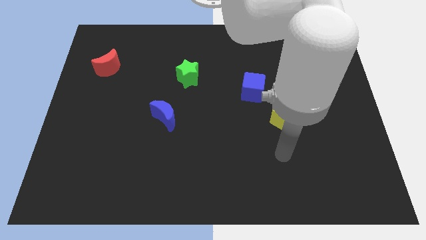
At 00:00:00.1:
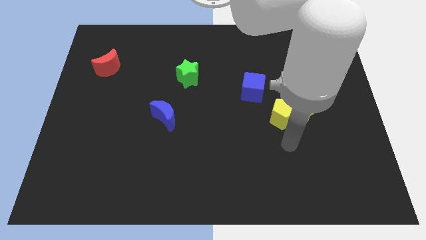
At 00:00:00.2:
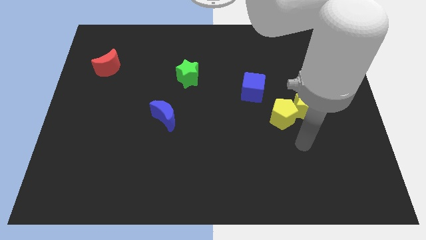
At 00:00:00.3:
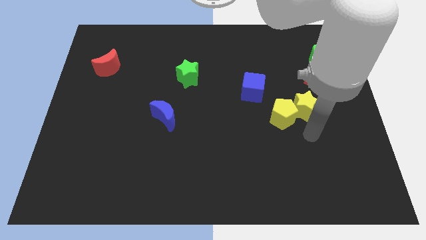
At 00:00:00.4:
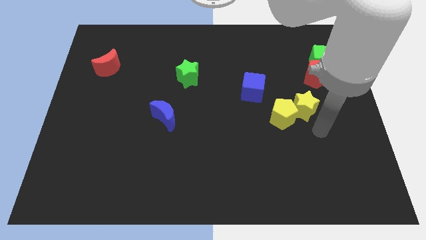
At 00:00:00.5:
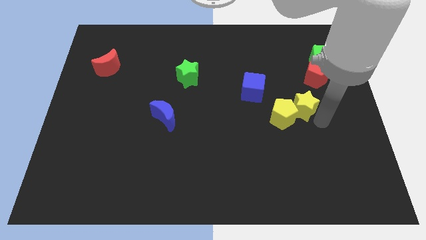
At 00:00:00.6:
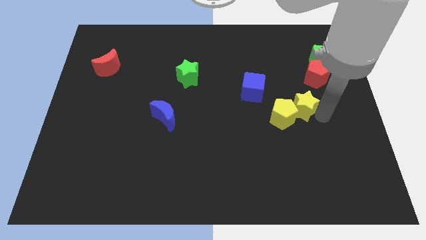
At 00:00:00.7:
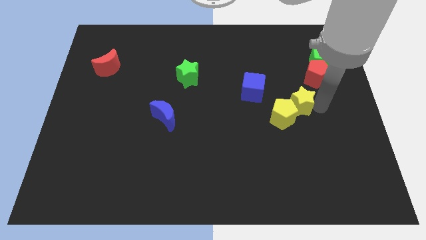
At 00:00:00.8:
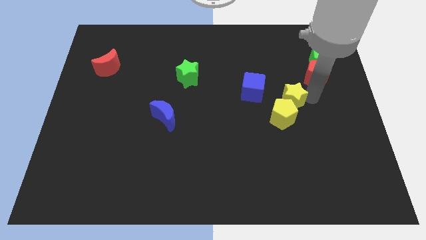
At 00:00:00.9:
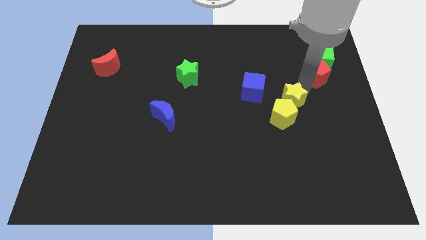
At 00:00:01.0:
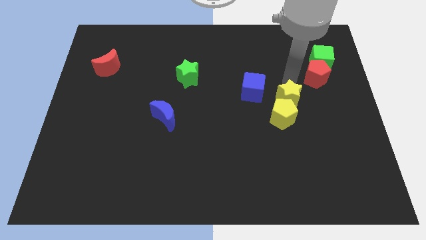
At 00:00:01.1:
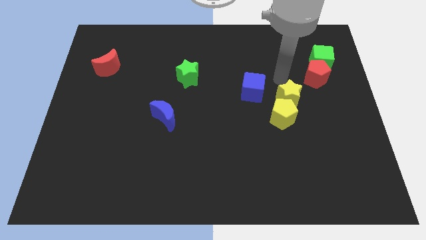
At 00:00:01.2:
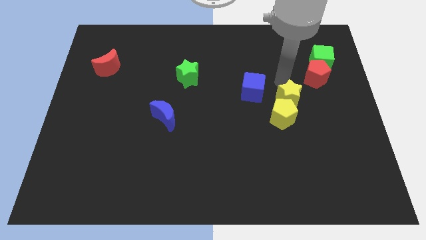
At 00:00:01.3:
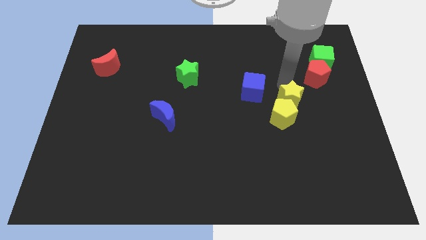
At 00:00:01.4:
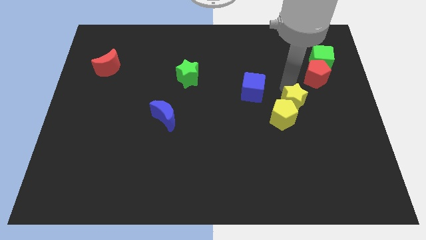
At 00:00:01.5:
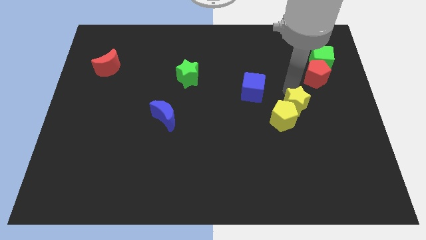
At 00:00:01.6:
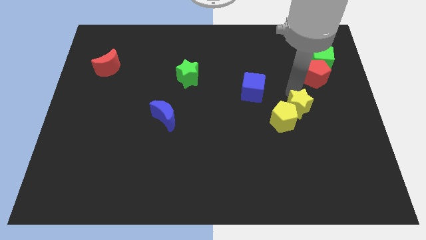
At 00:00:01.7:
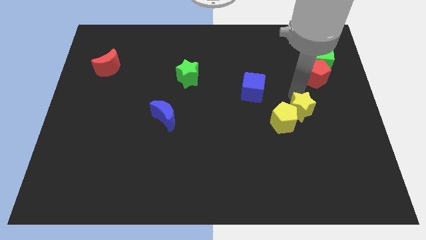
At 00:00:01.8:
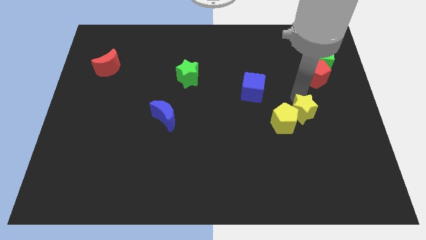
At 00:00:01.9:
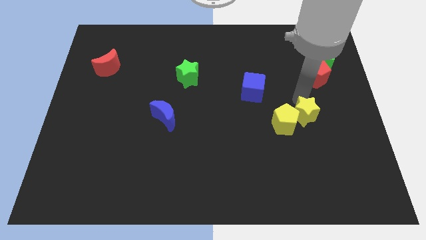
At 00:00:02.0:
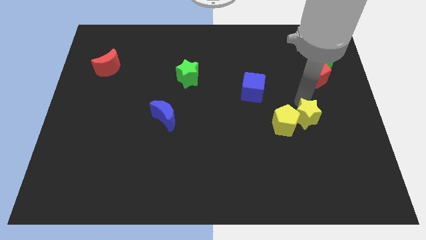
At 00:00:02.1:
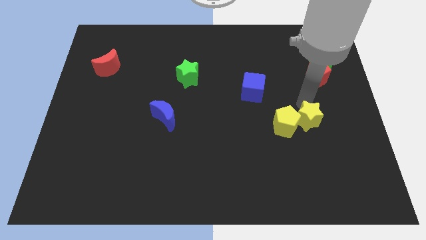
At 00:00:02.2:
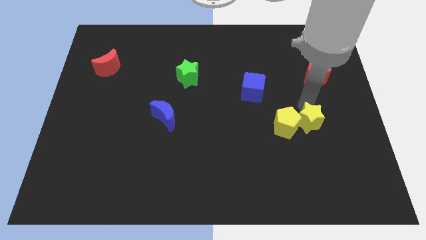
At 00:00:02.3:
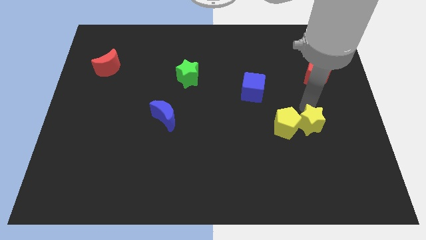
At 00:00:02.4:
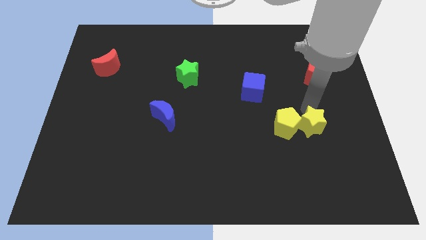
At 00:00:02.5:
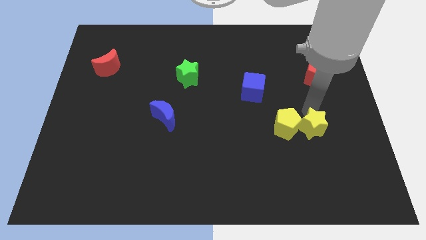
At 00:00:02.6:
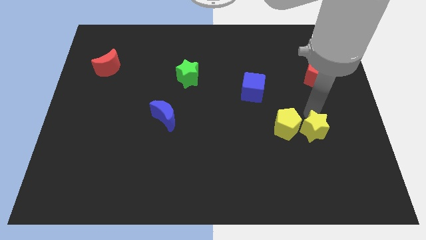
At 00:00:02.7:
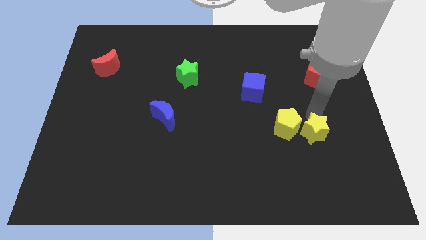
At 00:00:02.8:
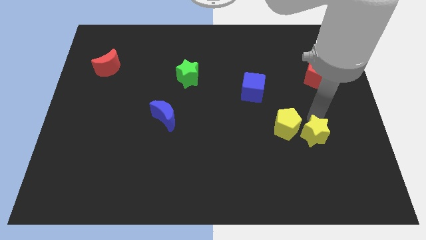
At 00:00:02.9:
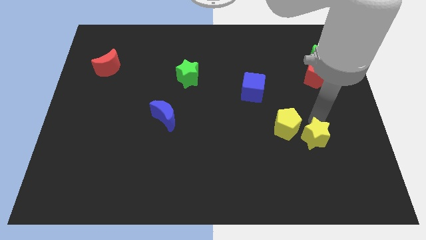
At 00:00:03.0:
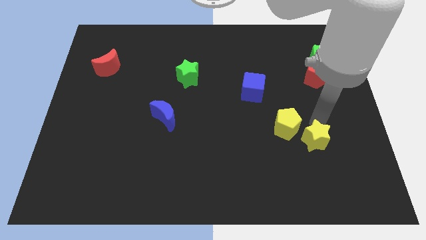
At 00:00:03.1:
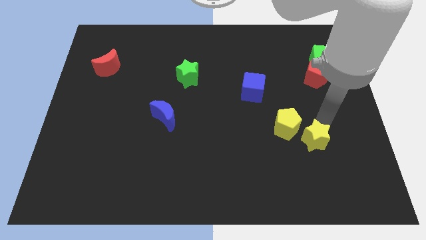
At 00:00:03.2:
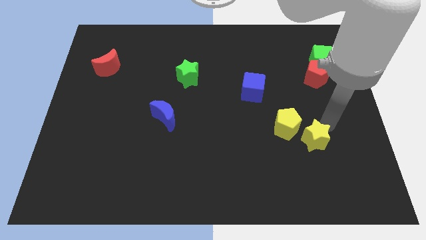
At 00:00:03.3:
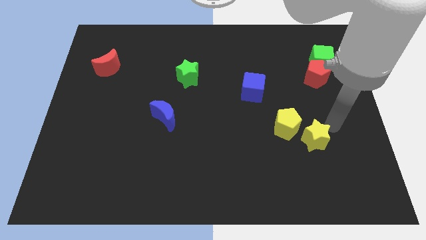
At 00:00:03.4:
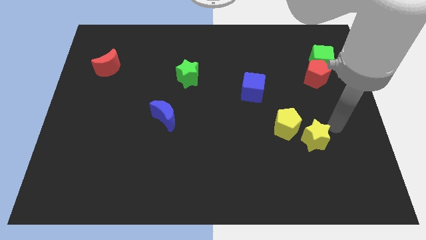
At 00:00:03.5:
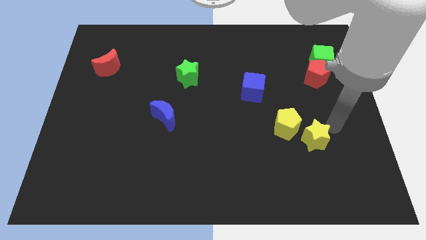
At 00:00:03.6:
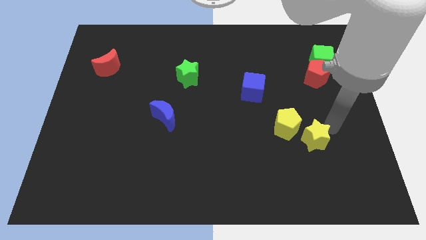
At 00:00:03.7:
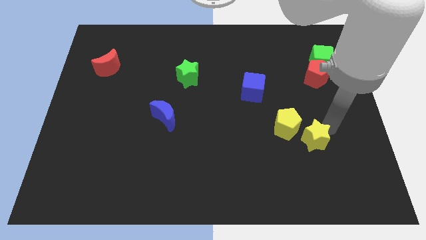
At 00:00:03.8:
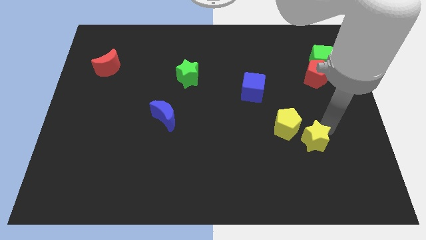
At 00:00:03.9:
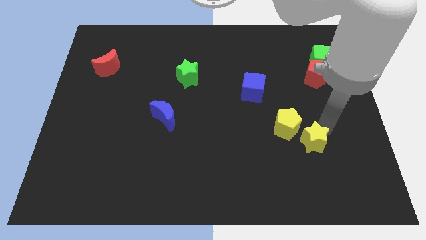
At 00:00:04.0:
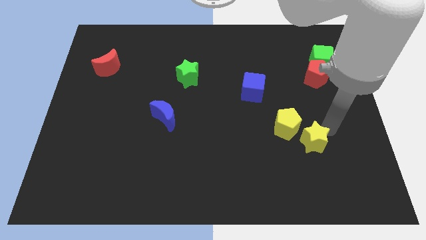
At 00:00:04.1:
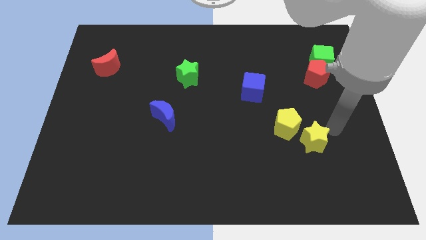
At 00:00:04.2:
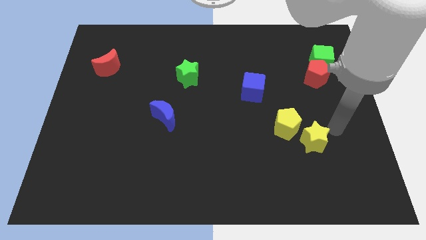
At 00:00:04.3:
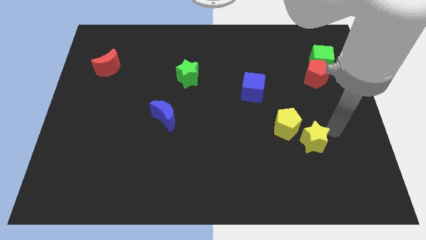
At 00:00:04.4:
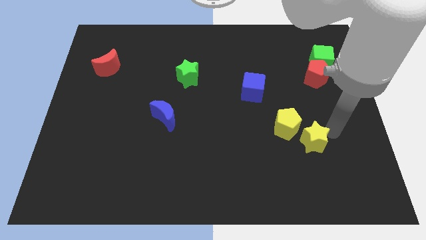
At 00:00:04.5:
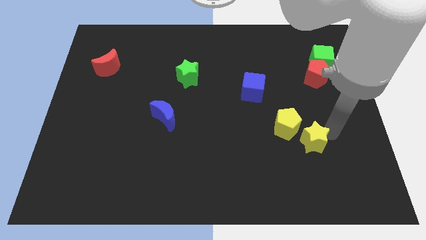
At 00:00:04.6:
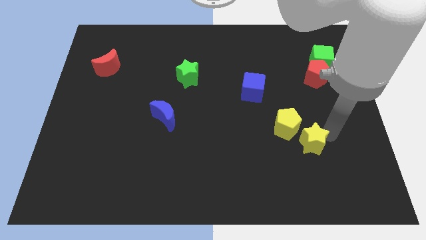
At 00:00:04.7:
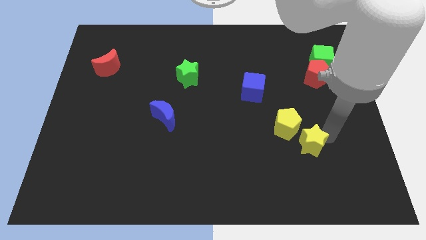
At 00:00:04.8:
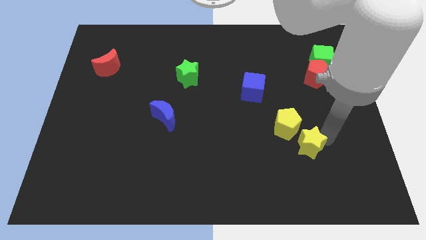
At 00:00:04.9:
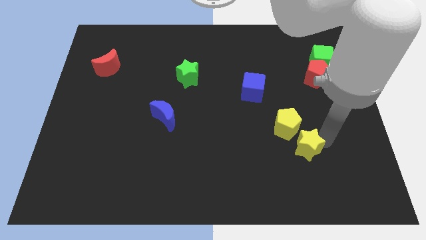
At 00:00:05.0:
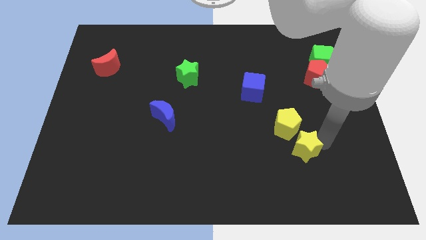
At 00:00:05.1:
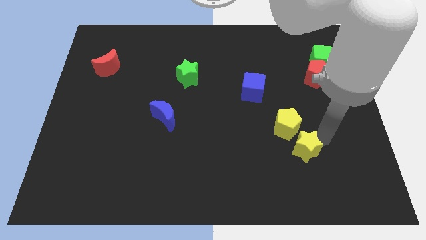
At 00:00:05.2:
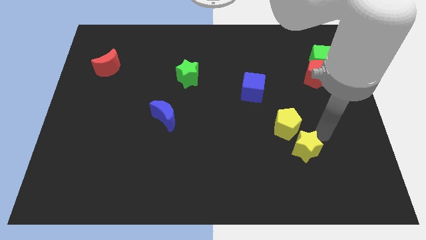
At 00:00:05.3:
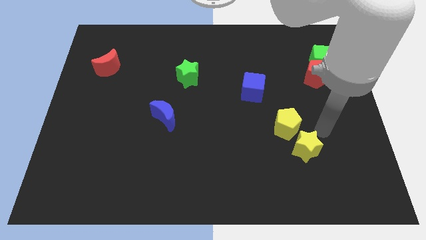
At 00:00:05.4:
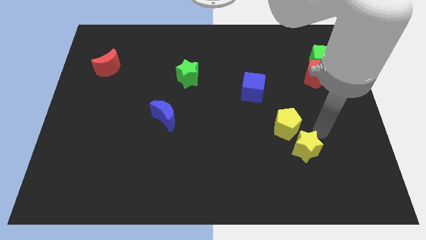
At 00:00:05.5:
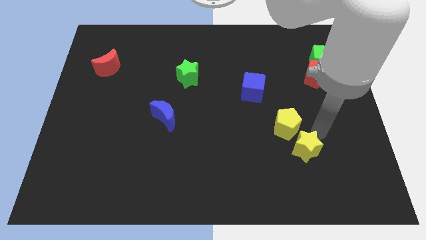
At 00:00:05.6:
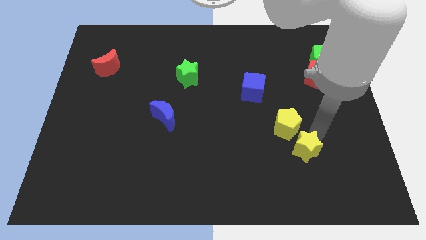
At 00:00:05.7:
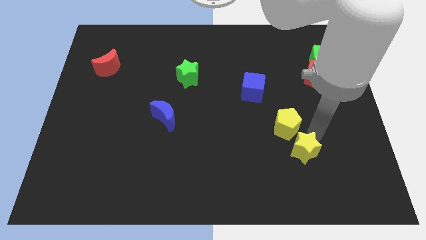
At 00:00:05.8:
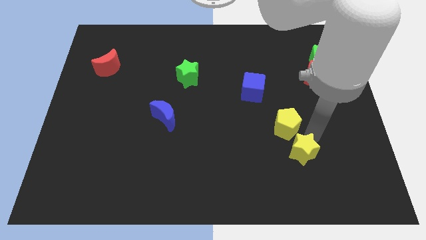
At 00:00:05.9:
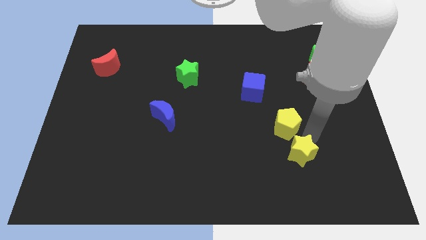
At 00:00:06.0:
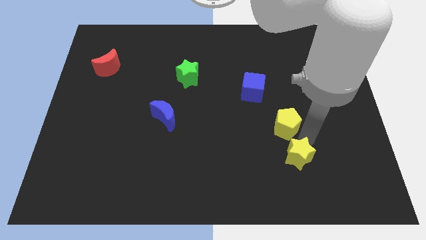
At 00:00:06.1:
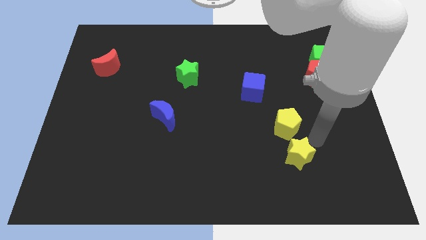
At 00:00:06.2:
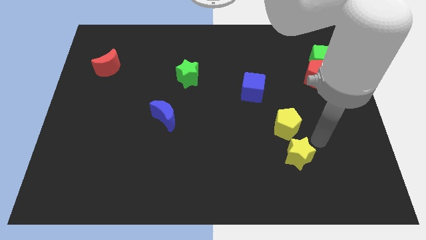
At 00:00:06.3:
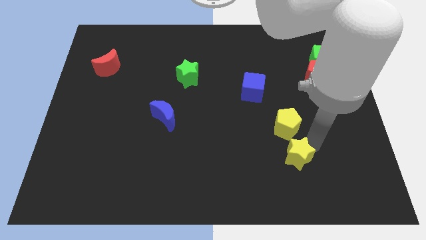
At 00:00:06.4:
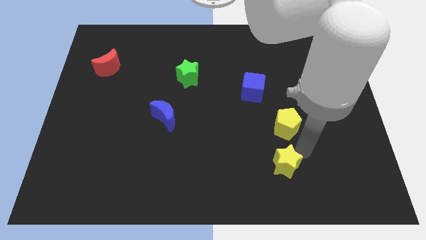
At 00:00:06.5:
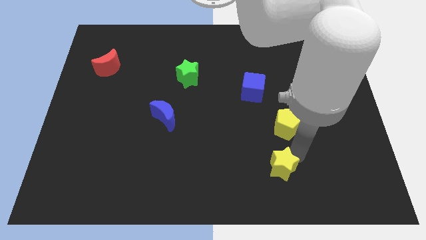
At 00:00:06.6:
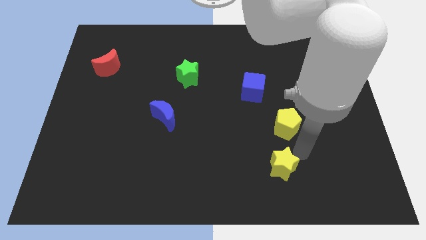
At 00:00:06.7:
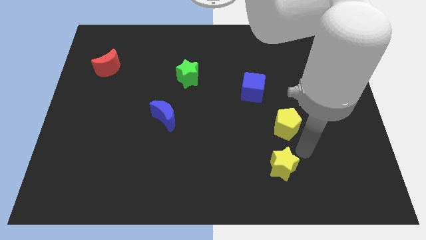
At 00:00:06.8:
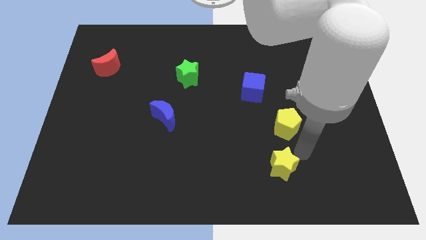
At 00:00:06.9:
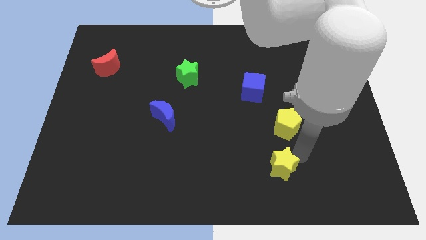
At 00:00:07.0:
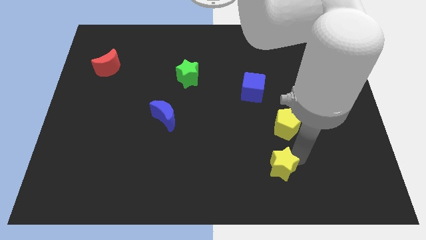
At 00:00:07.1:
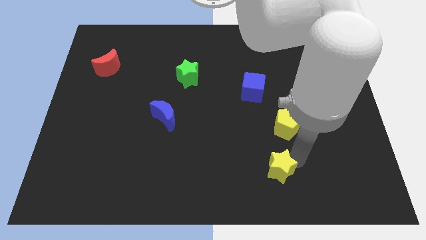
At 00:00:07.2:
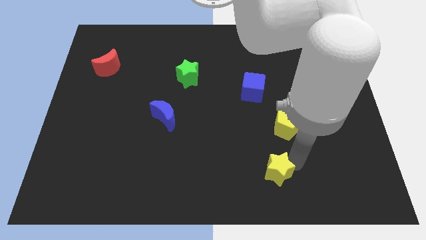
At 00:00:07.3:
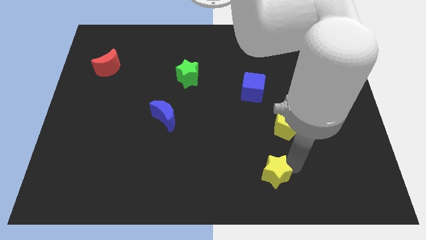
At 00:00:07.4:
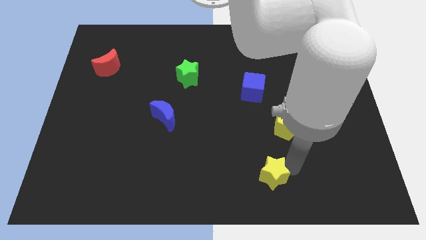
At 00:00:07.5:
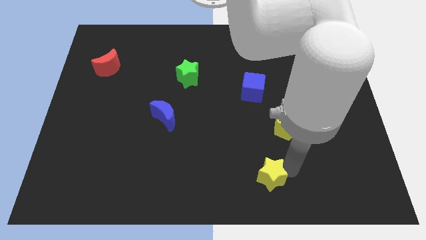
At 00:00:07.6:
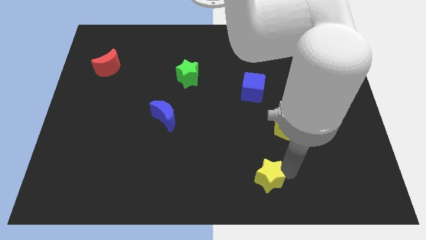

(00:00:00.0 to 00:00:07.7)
put the yellow star to the bottom
